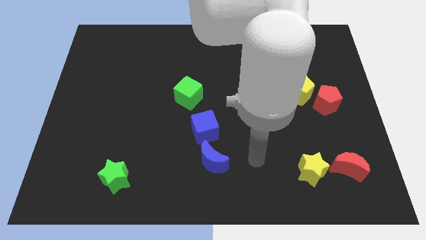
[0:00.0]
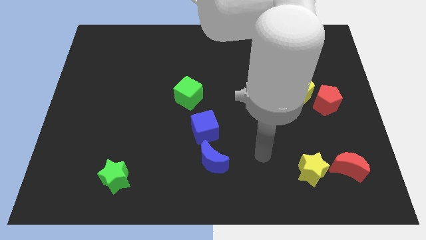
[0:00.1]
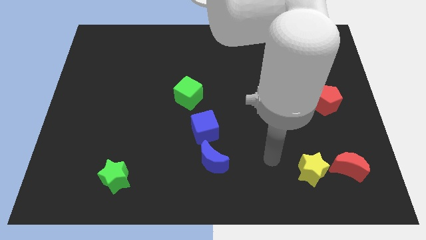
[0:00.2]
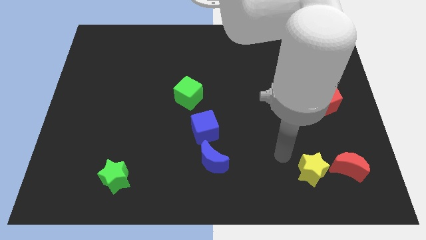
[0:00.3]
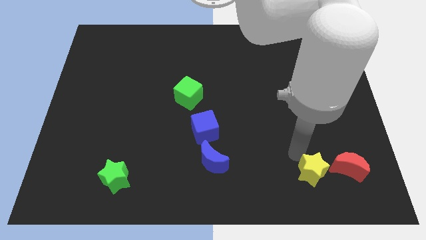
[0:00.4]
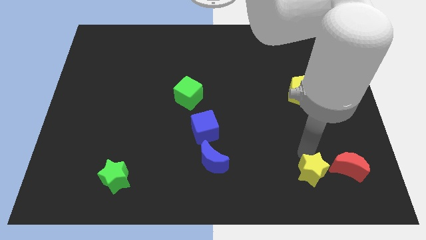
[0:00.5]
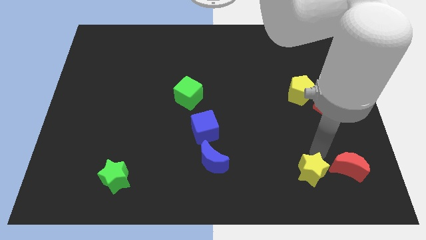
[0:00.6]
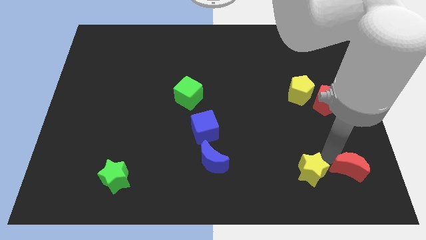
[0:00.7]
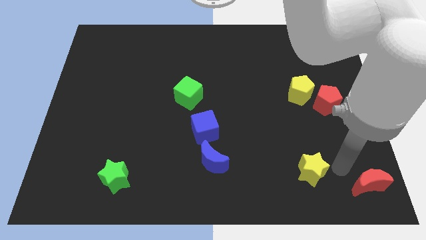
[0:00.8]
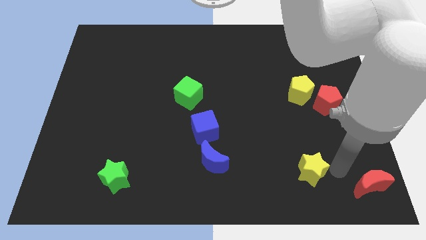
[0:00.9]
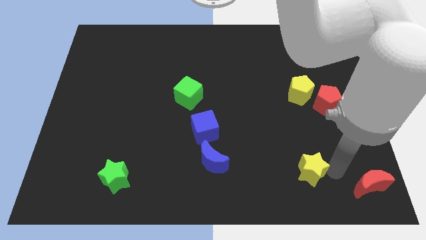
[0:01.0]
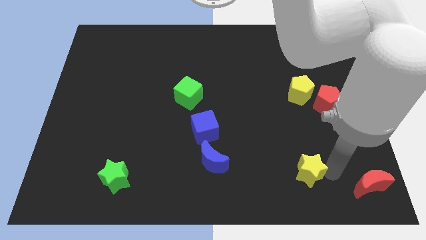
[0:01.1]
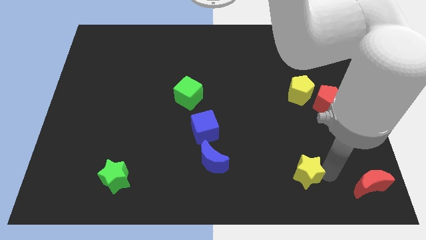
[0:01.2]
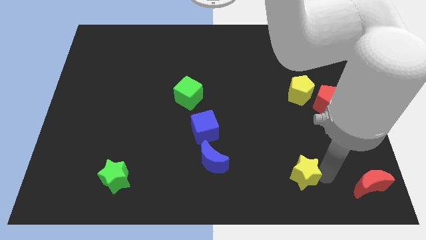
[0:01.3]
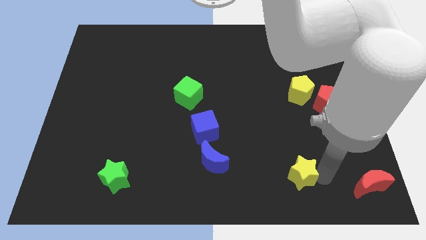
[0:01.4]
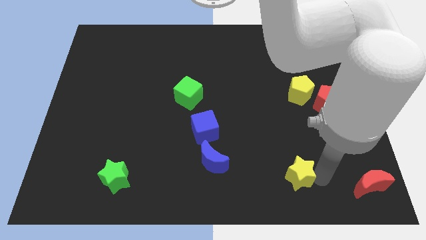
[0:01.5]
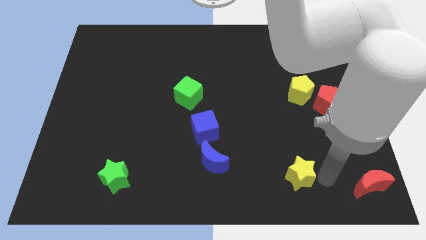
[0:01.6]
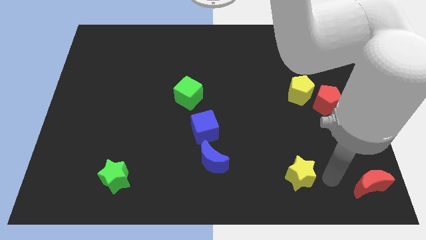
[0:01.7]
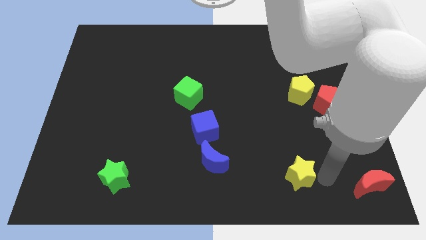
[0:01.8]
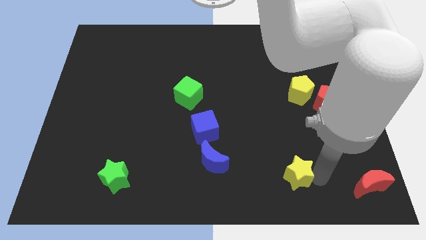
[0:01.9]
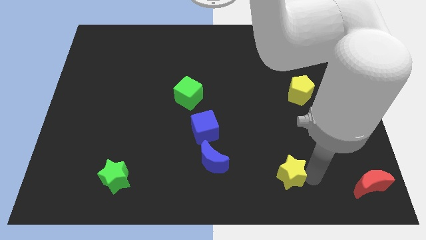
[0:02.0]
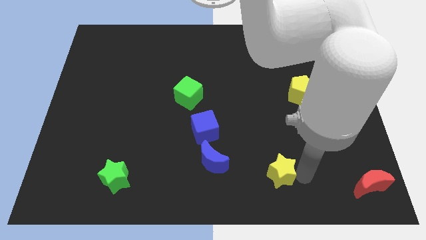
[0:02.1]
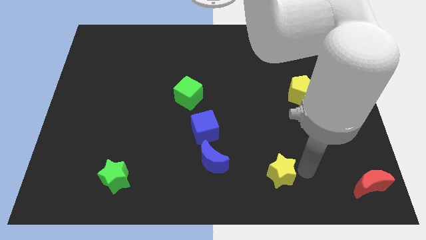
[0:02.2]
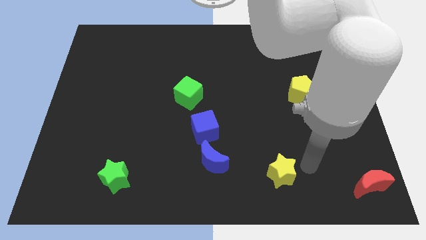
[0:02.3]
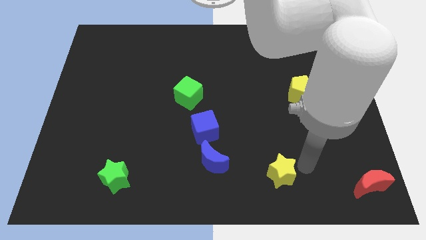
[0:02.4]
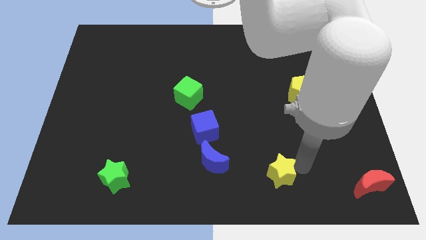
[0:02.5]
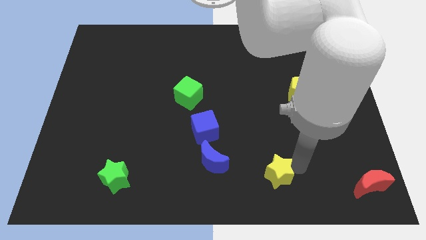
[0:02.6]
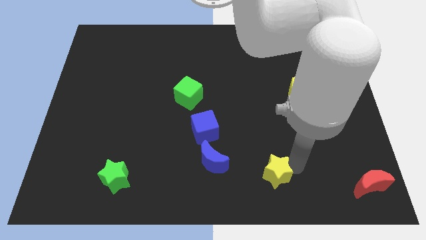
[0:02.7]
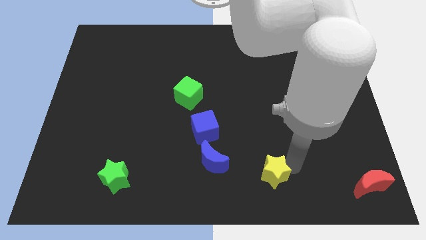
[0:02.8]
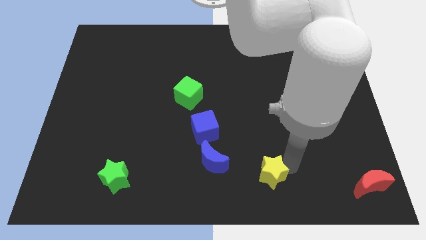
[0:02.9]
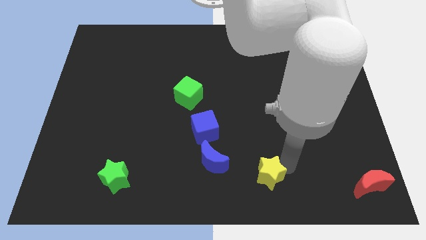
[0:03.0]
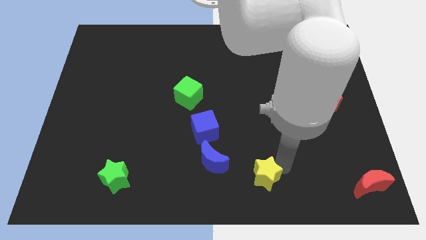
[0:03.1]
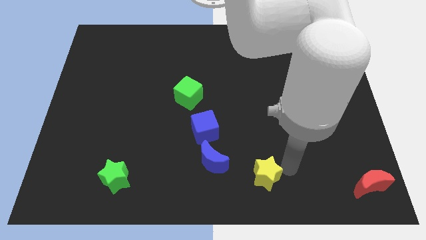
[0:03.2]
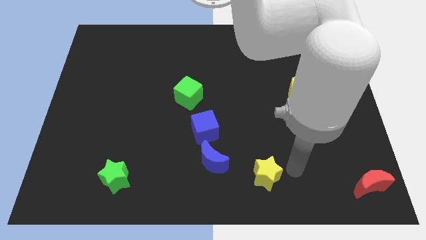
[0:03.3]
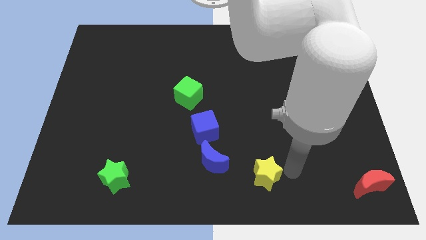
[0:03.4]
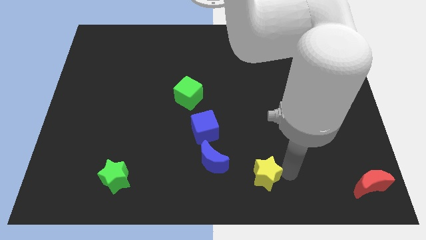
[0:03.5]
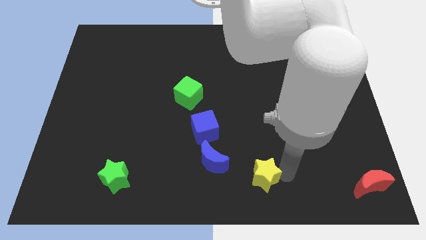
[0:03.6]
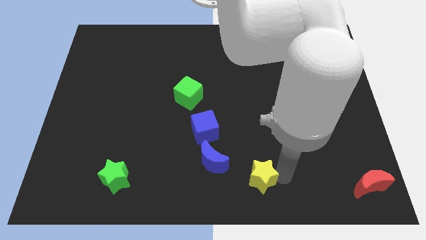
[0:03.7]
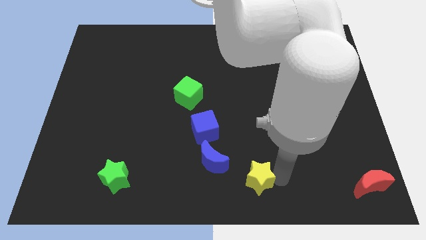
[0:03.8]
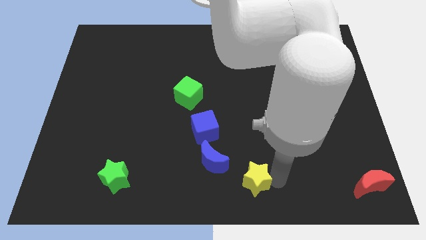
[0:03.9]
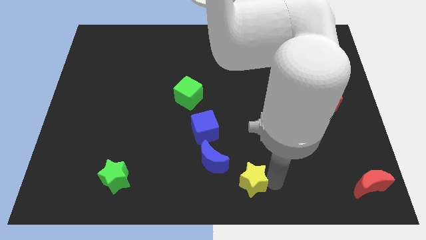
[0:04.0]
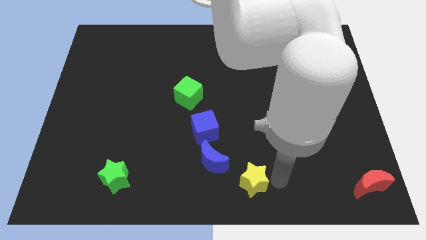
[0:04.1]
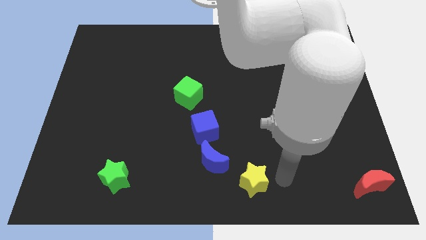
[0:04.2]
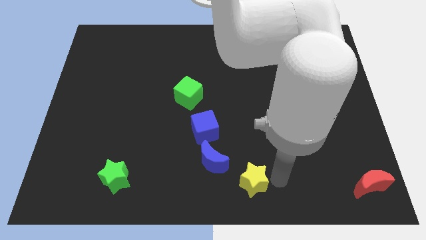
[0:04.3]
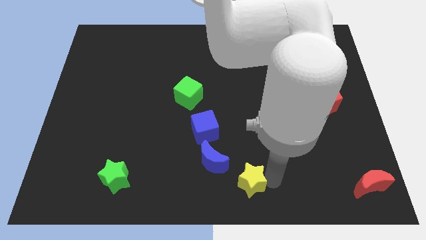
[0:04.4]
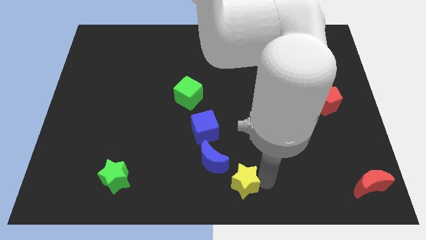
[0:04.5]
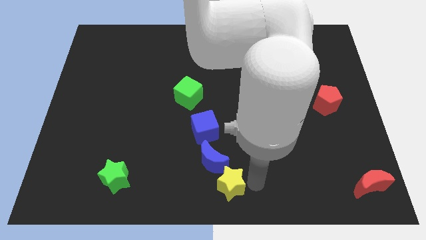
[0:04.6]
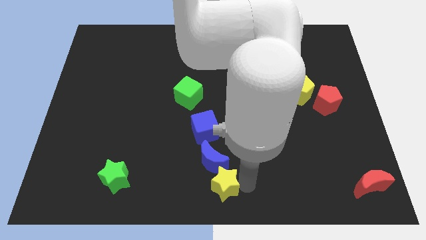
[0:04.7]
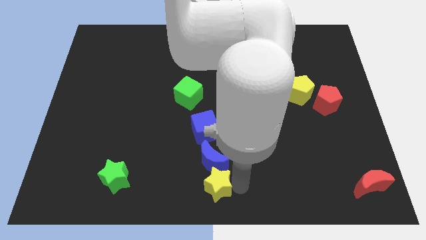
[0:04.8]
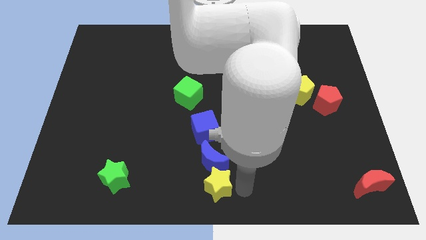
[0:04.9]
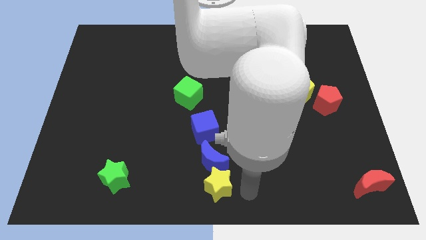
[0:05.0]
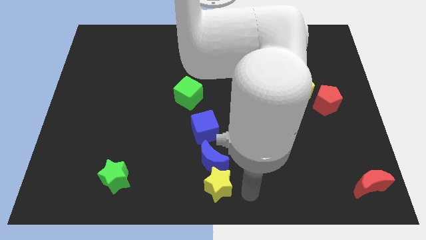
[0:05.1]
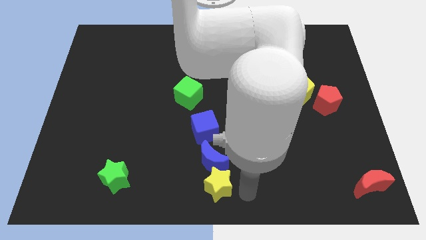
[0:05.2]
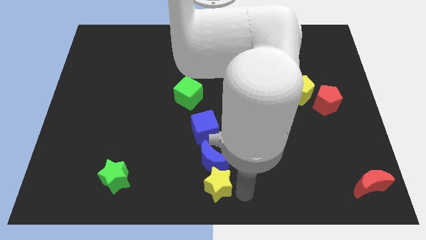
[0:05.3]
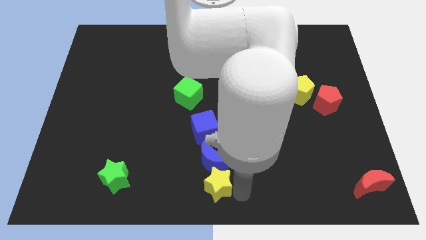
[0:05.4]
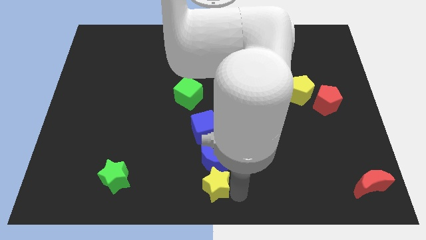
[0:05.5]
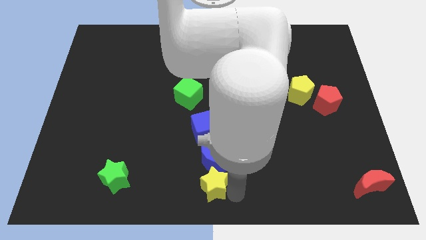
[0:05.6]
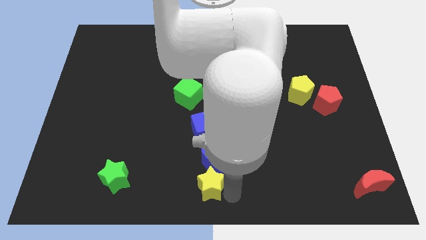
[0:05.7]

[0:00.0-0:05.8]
slide the yellow star to the left

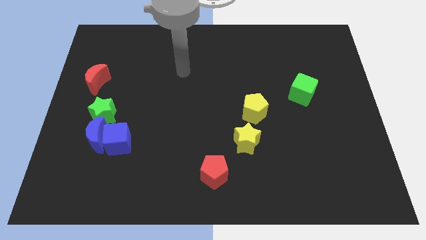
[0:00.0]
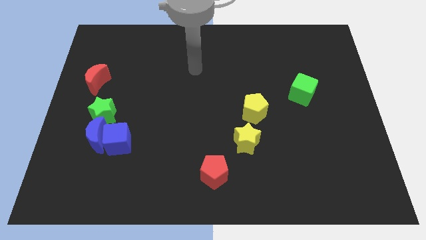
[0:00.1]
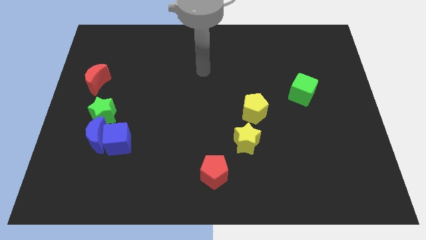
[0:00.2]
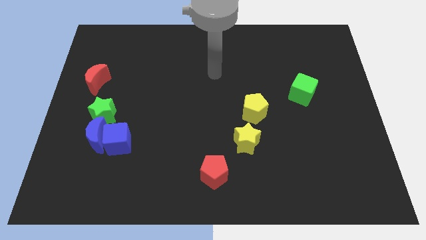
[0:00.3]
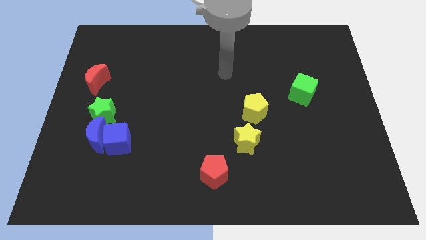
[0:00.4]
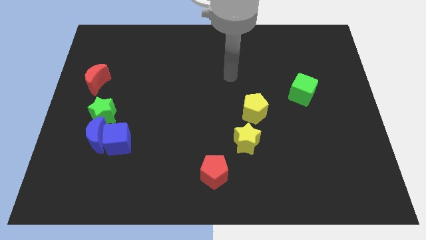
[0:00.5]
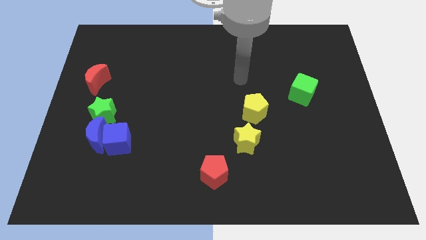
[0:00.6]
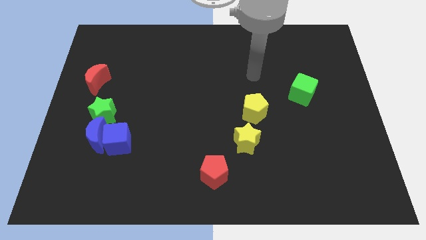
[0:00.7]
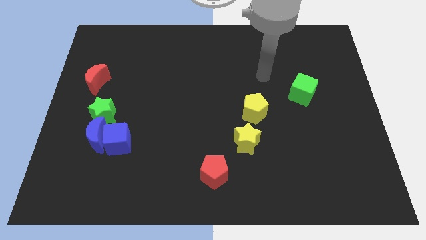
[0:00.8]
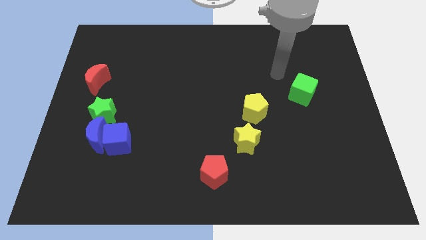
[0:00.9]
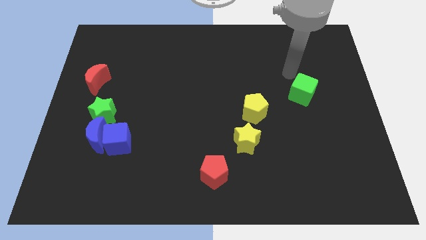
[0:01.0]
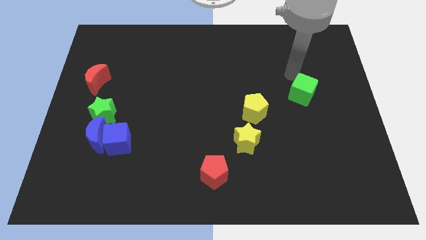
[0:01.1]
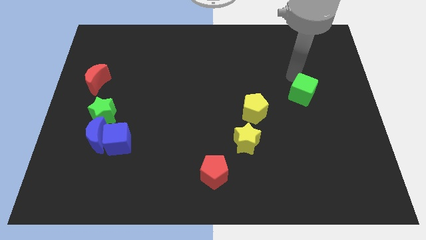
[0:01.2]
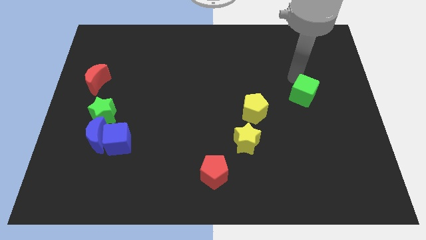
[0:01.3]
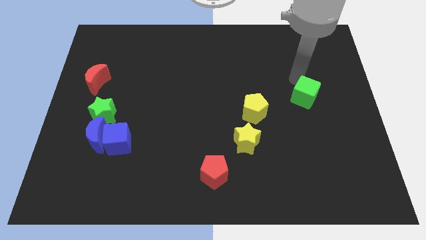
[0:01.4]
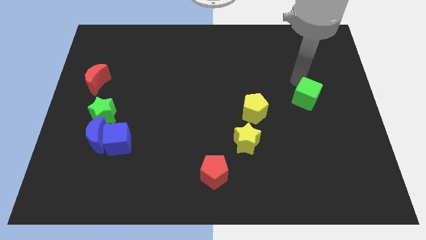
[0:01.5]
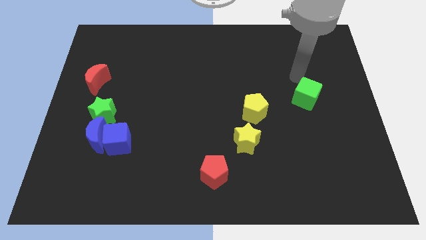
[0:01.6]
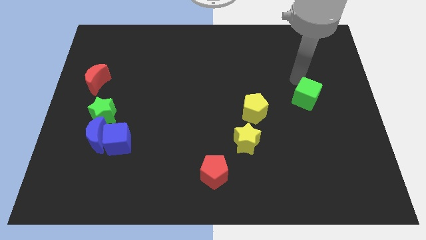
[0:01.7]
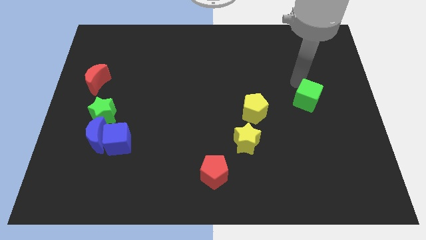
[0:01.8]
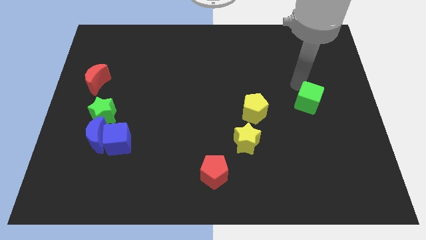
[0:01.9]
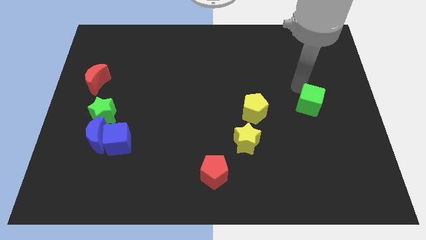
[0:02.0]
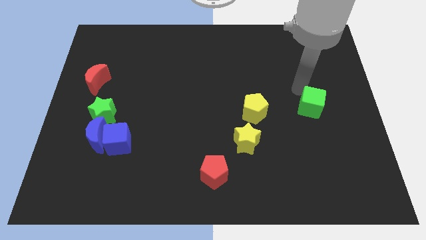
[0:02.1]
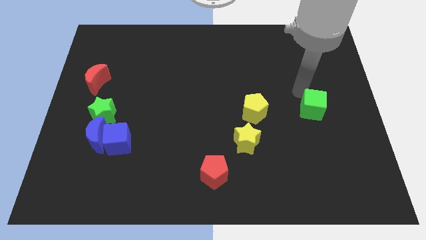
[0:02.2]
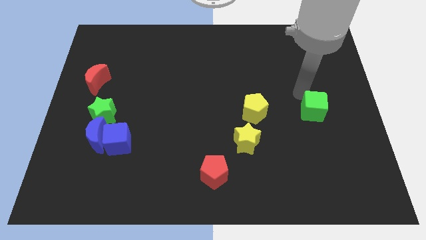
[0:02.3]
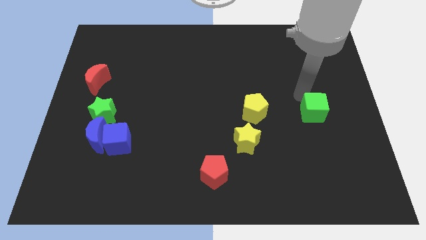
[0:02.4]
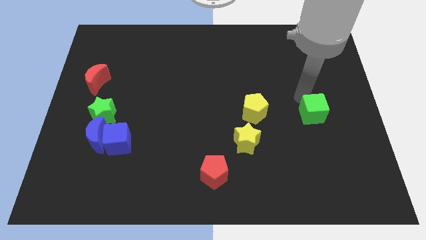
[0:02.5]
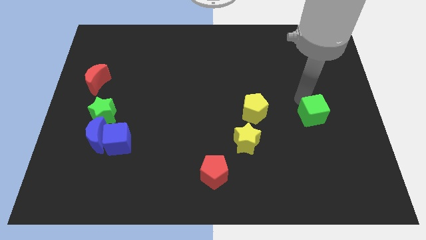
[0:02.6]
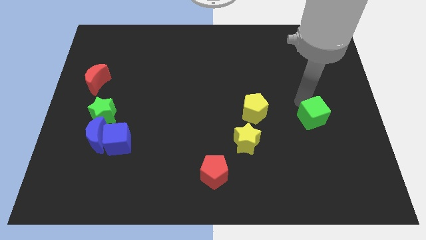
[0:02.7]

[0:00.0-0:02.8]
move the green cube a little bit downwards
